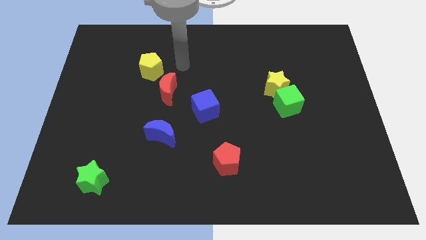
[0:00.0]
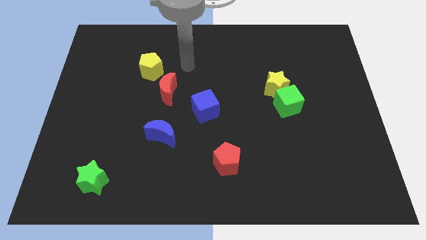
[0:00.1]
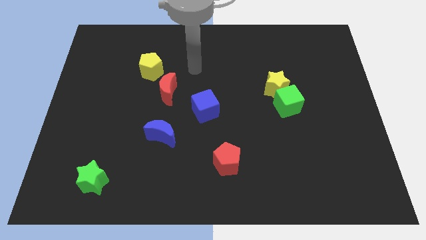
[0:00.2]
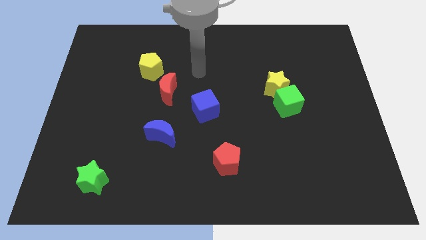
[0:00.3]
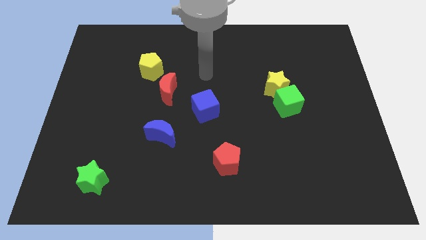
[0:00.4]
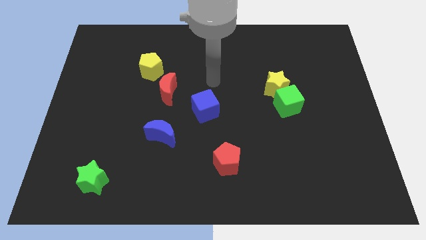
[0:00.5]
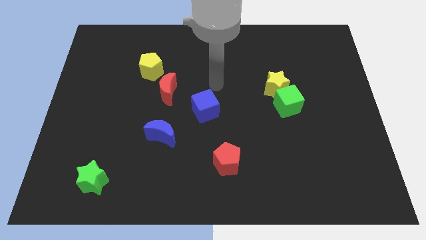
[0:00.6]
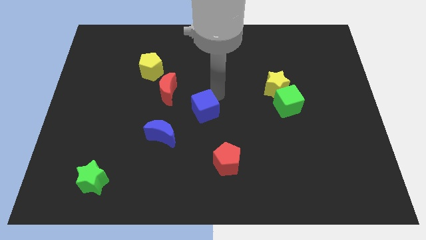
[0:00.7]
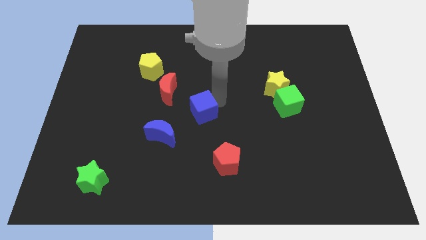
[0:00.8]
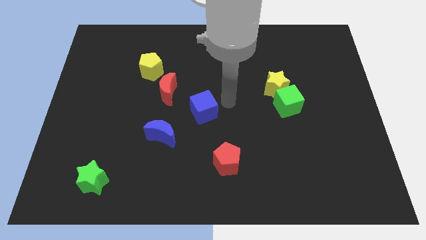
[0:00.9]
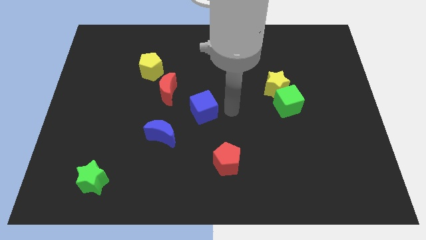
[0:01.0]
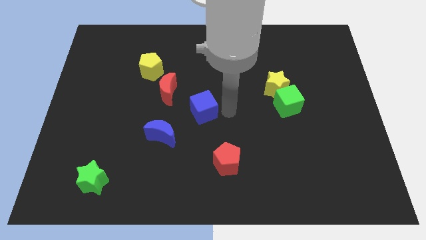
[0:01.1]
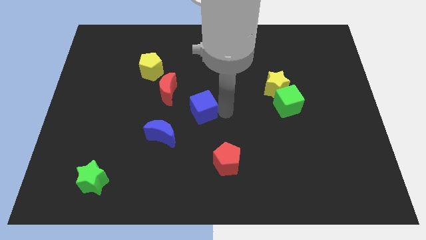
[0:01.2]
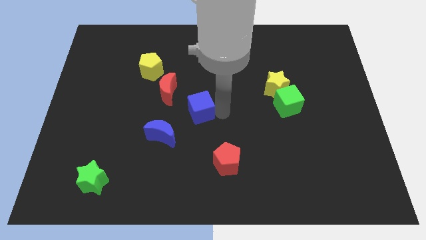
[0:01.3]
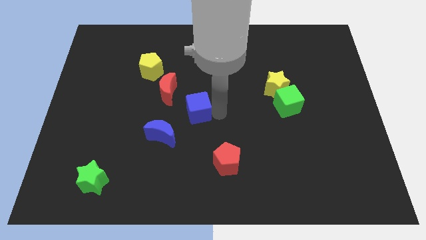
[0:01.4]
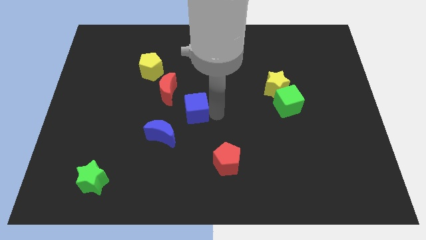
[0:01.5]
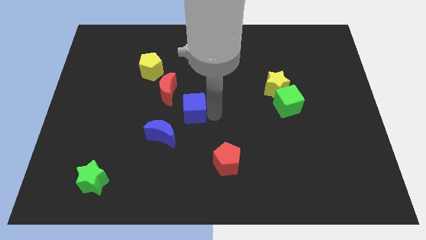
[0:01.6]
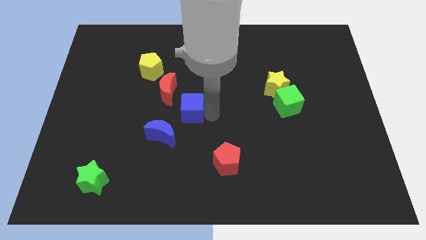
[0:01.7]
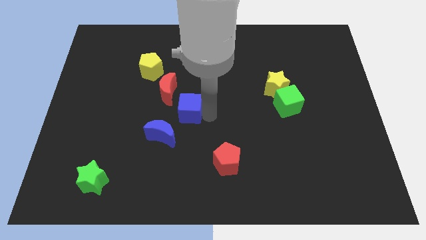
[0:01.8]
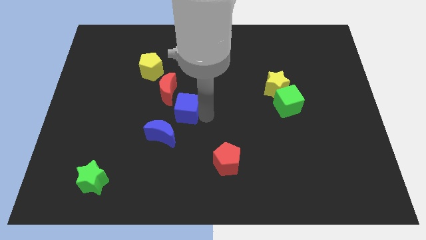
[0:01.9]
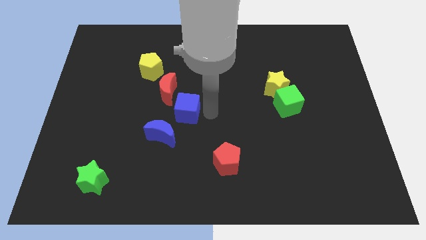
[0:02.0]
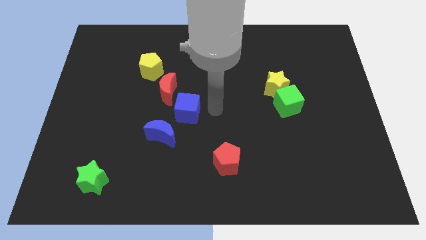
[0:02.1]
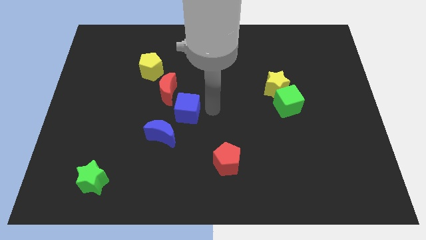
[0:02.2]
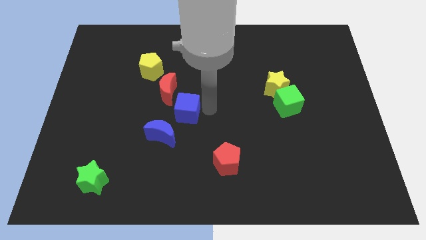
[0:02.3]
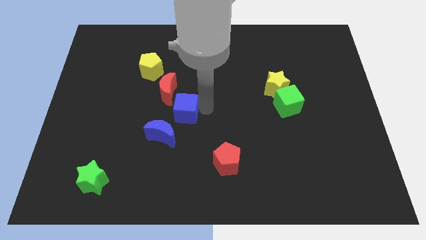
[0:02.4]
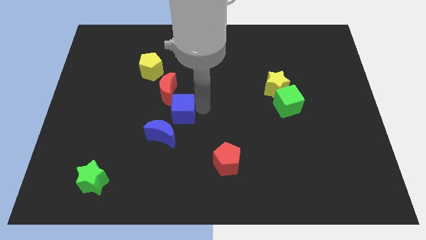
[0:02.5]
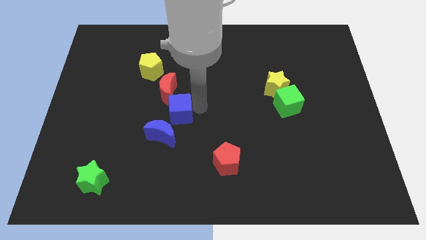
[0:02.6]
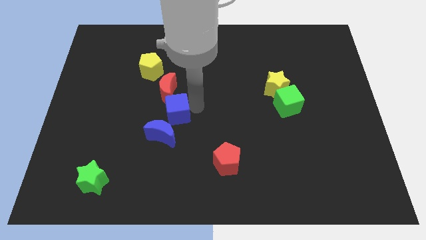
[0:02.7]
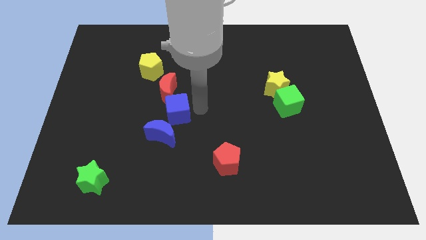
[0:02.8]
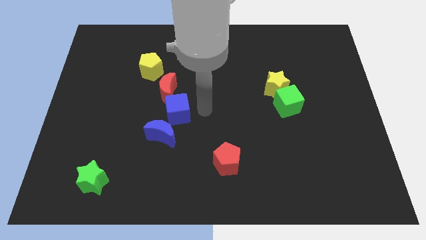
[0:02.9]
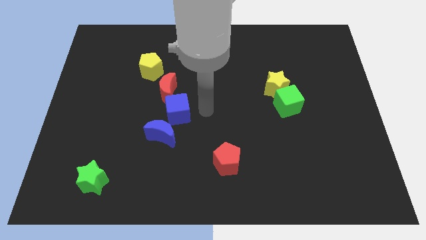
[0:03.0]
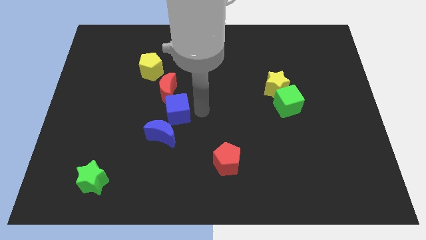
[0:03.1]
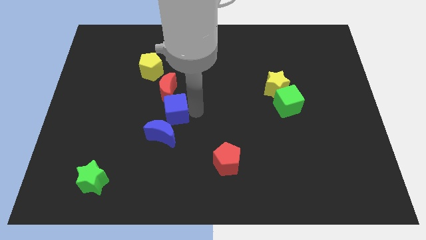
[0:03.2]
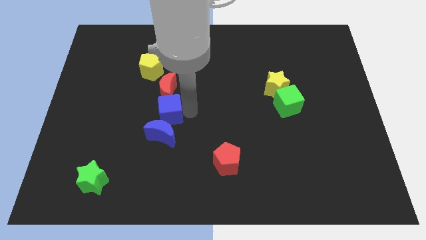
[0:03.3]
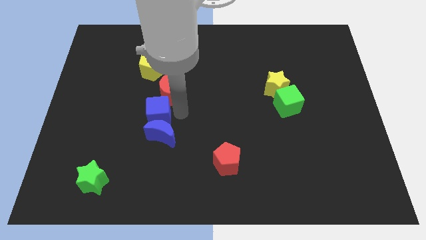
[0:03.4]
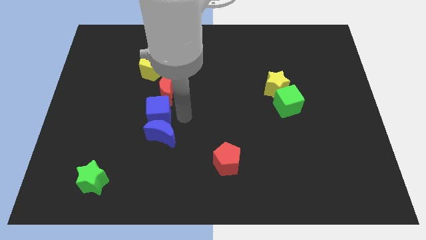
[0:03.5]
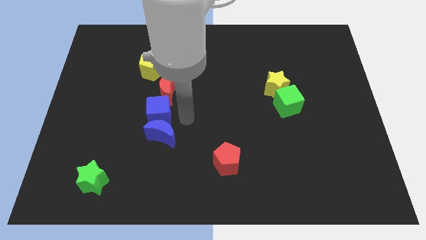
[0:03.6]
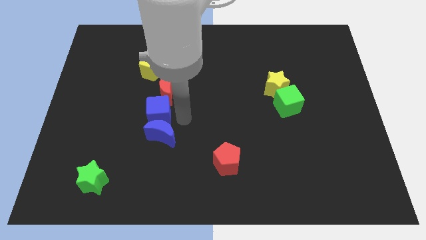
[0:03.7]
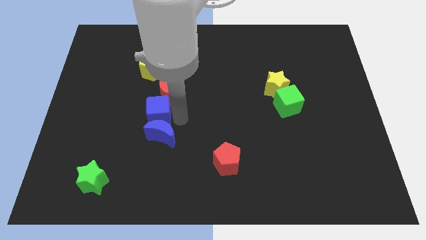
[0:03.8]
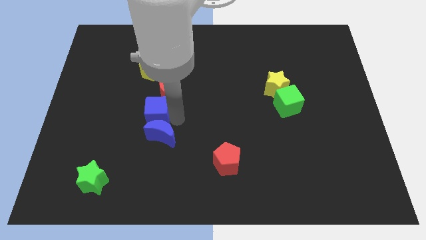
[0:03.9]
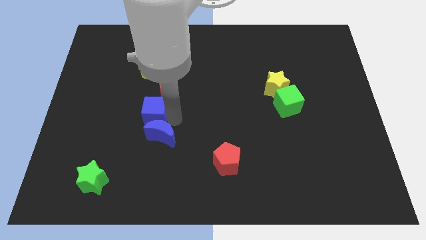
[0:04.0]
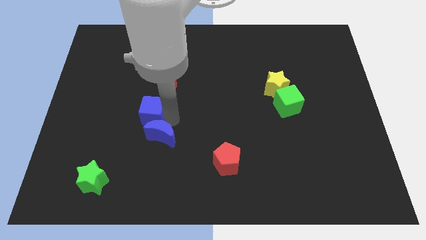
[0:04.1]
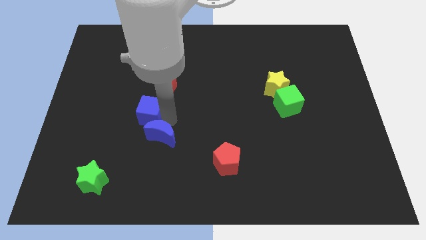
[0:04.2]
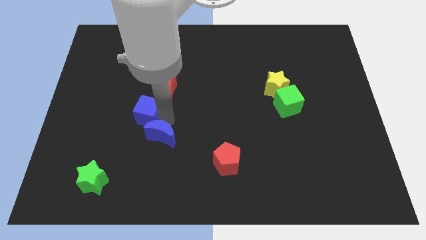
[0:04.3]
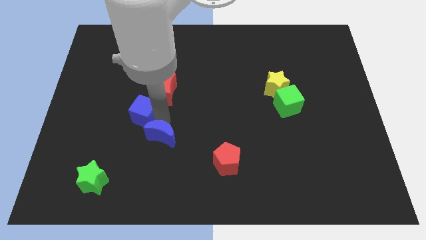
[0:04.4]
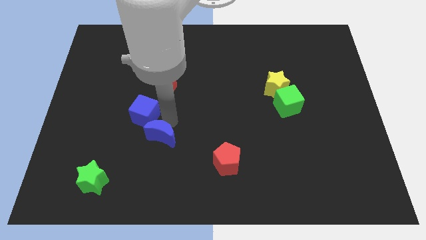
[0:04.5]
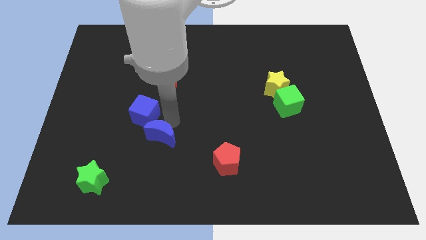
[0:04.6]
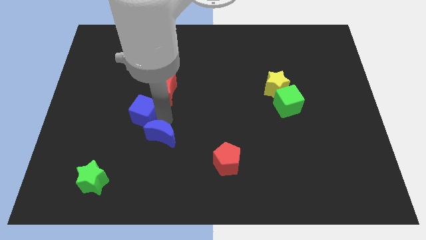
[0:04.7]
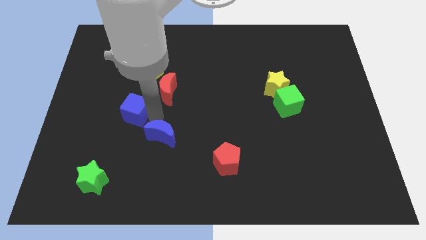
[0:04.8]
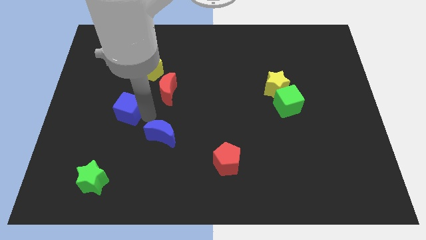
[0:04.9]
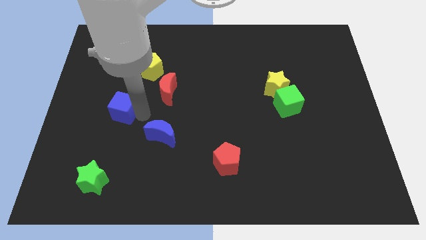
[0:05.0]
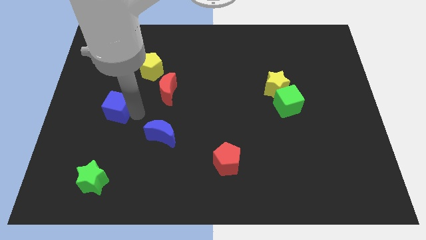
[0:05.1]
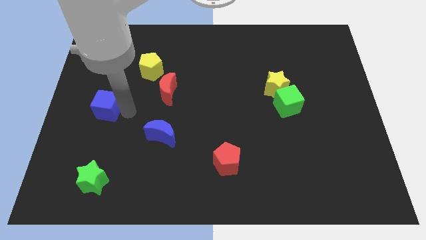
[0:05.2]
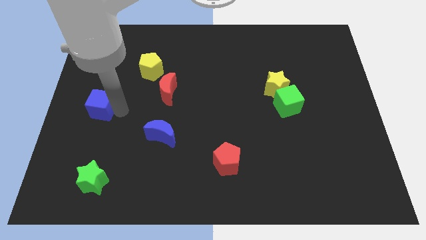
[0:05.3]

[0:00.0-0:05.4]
push the blue cube to the left side
